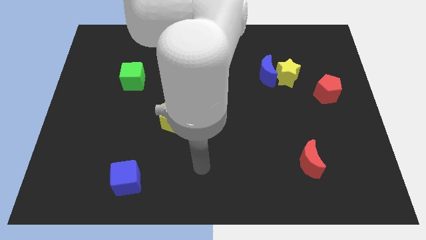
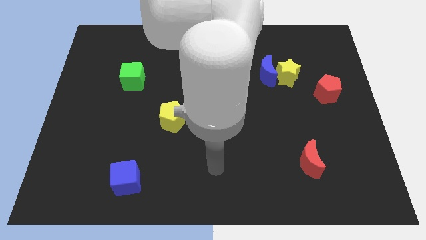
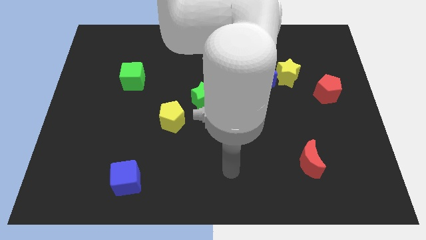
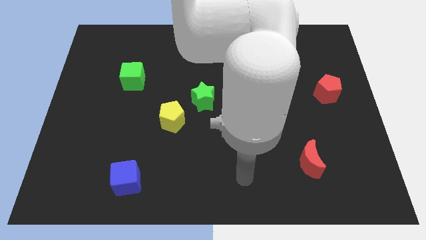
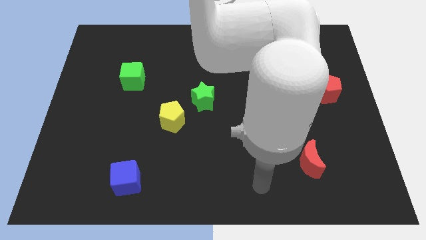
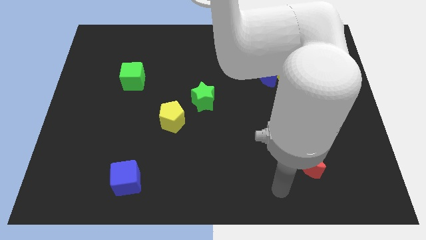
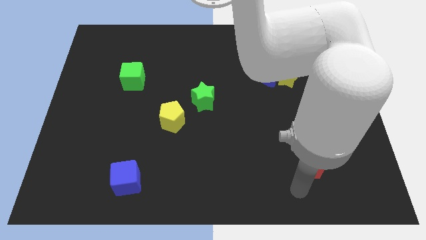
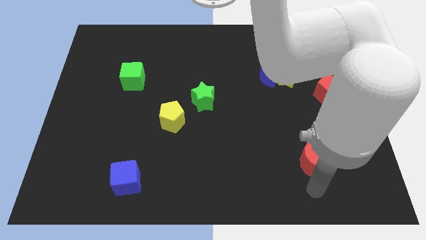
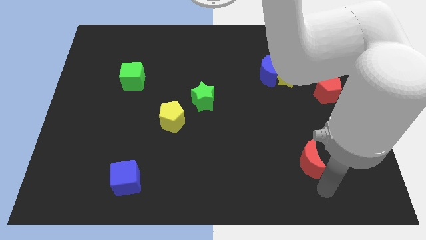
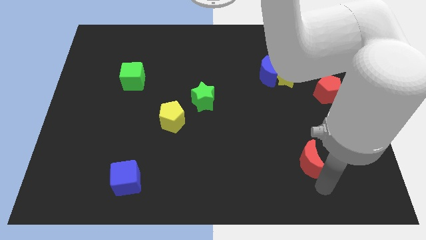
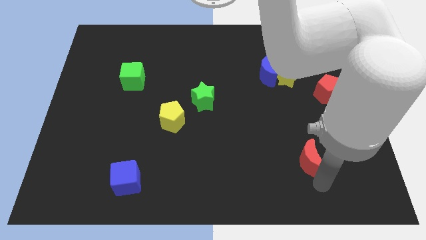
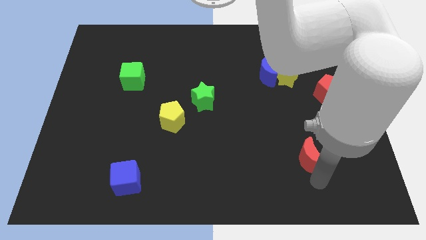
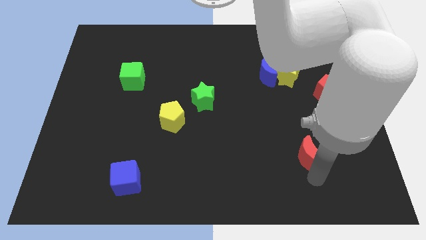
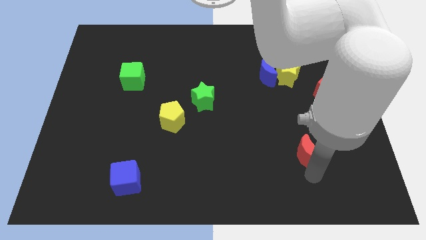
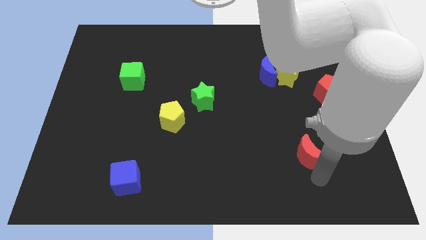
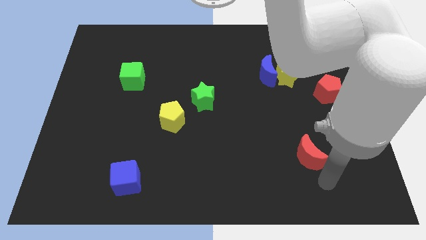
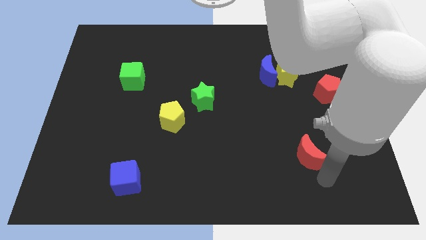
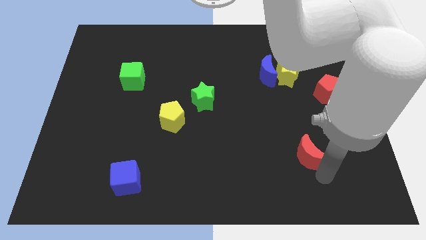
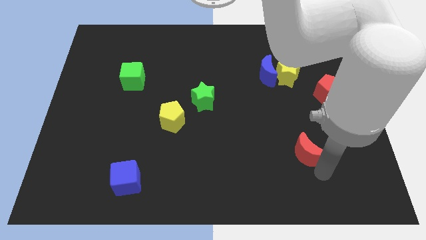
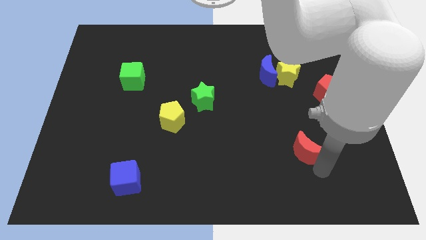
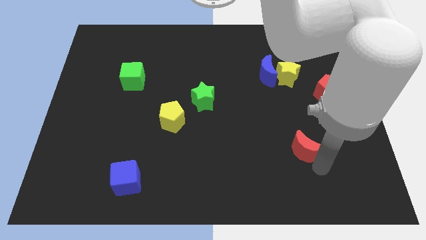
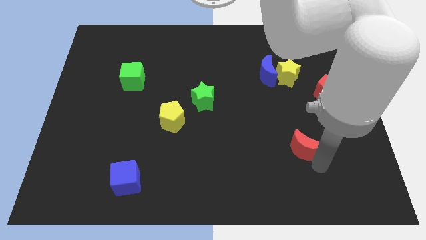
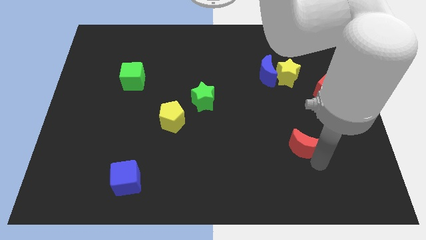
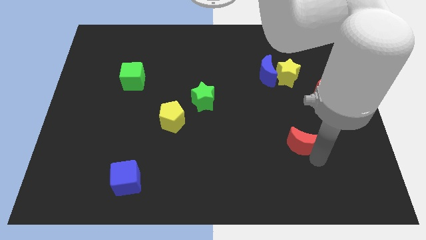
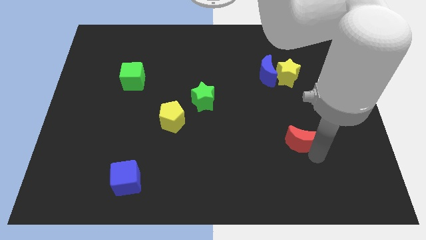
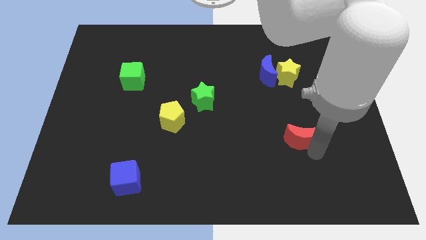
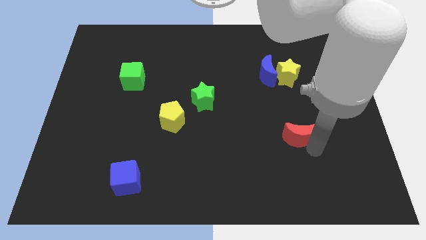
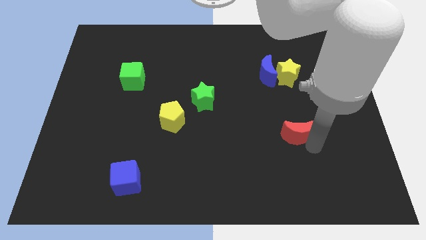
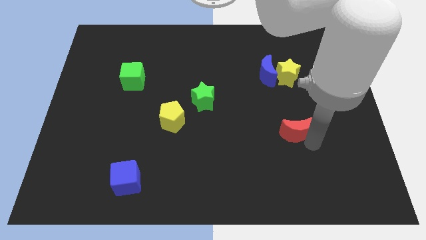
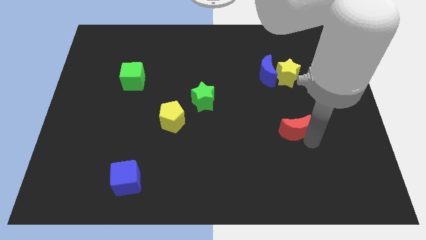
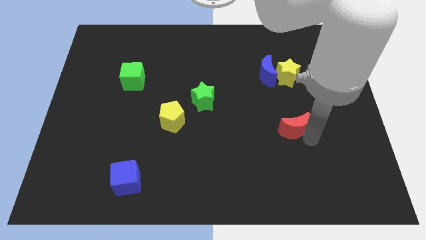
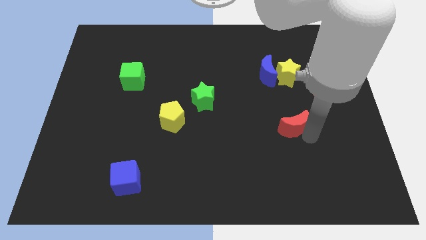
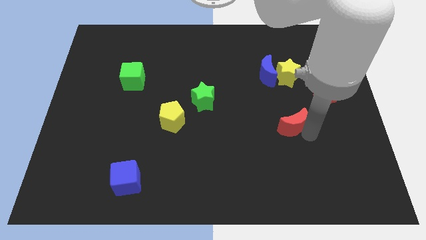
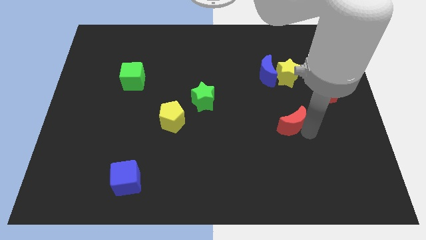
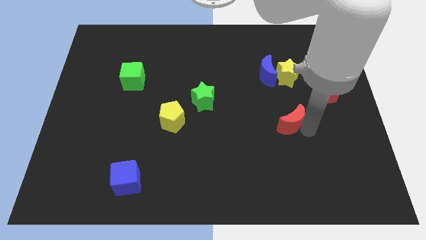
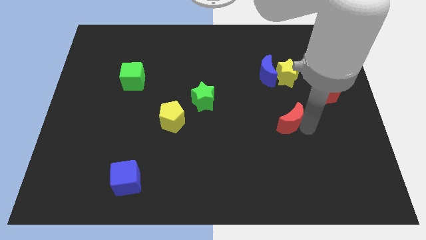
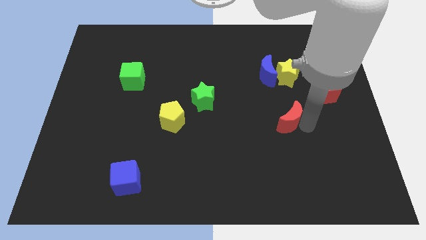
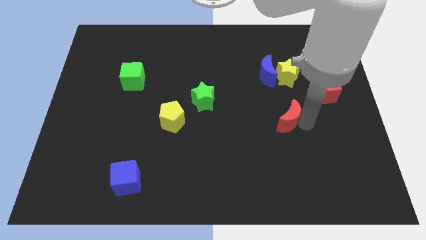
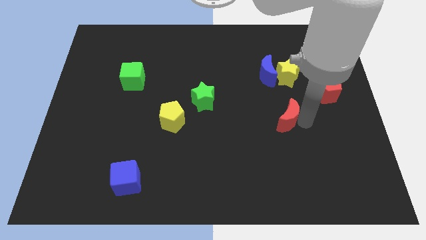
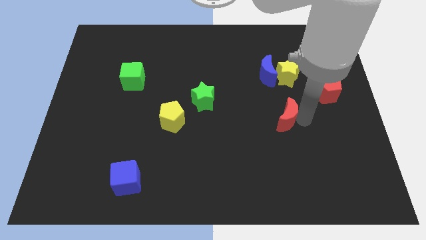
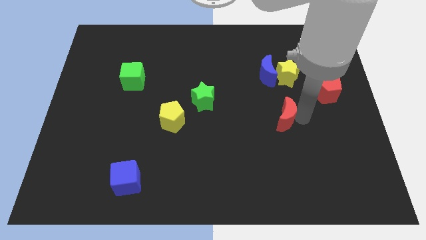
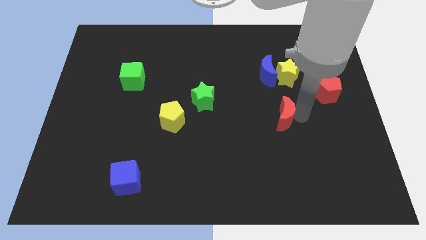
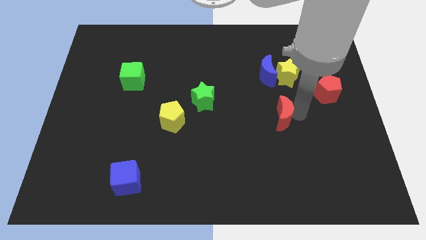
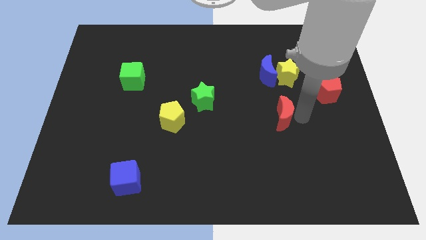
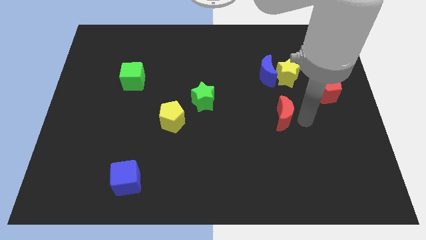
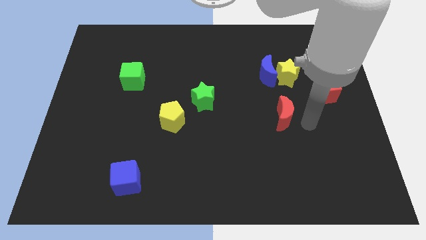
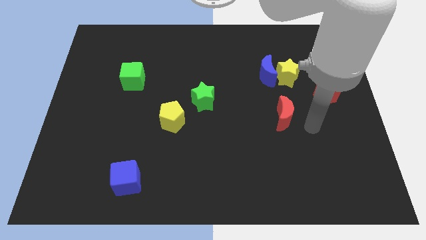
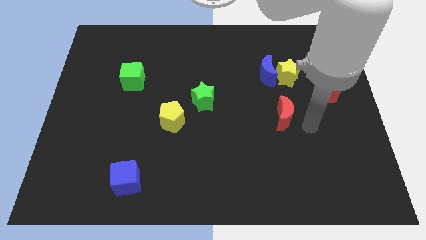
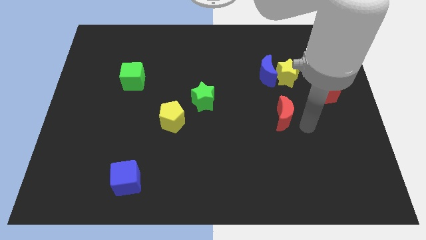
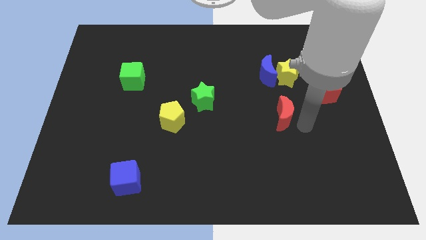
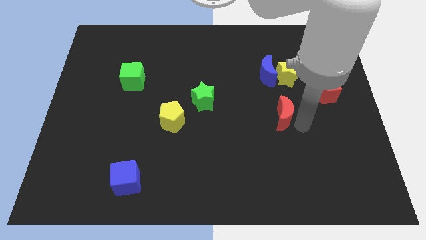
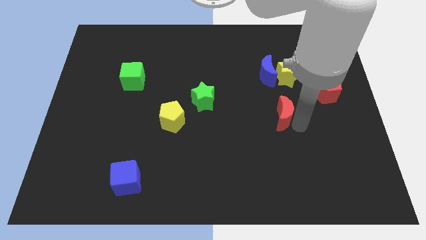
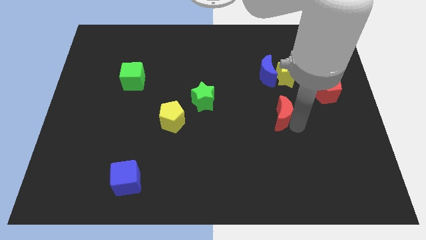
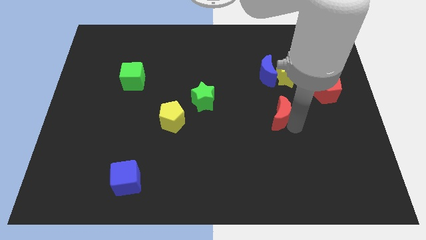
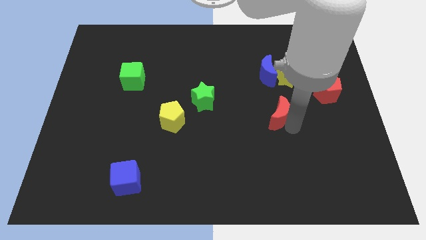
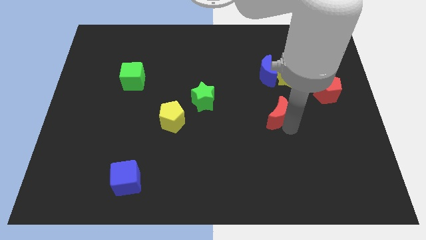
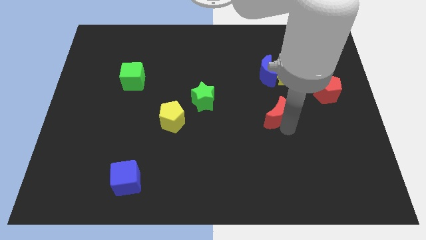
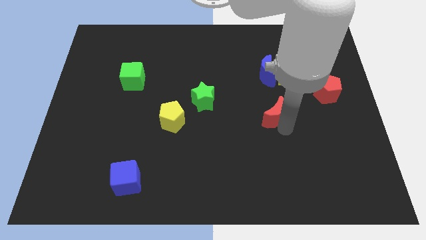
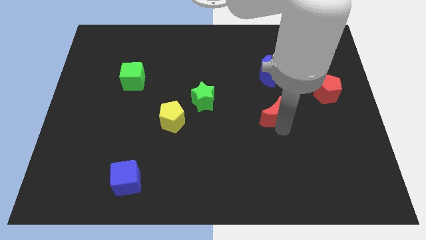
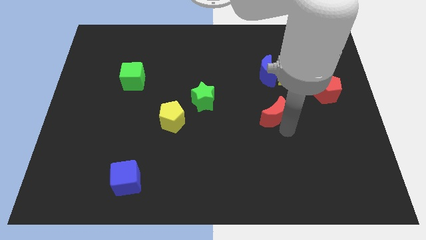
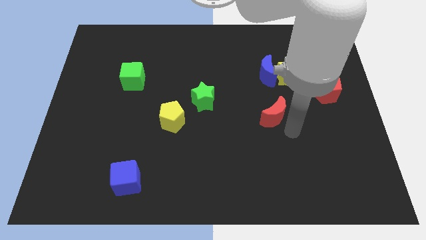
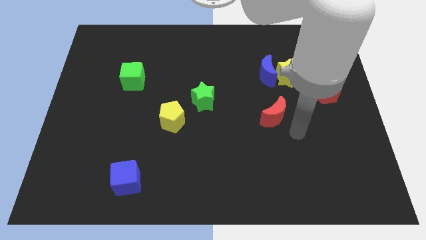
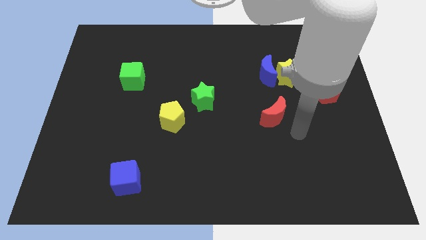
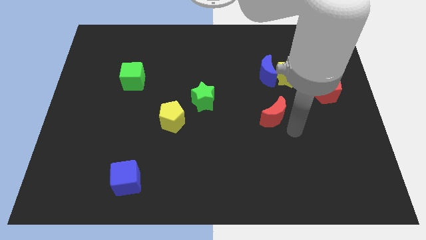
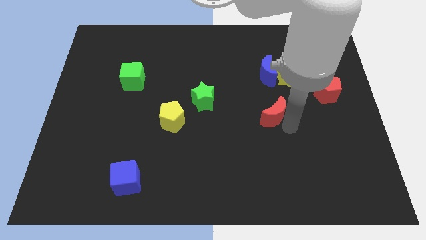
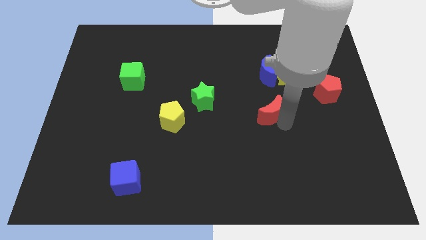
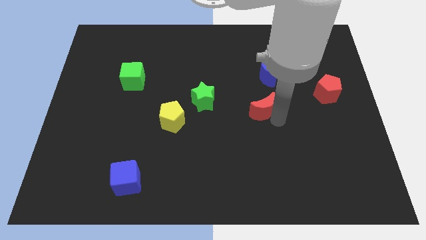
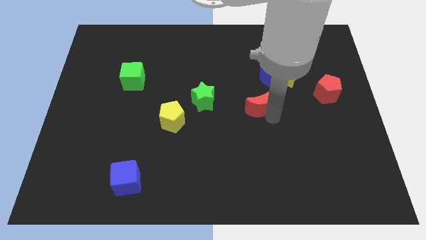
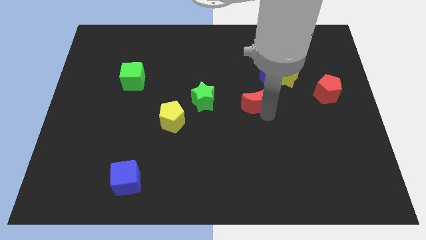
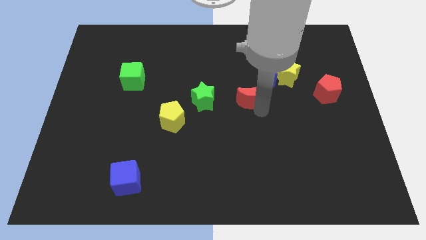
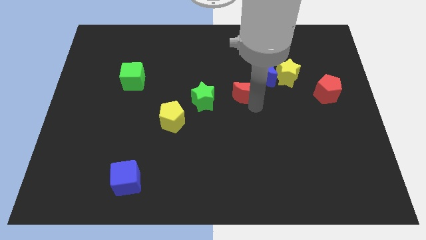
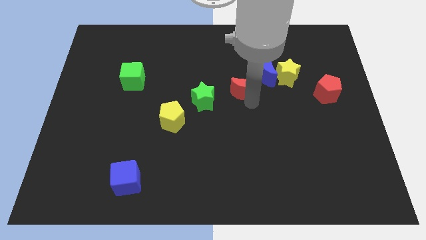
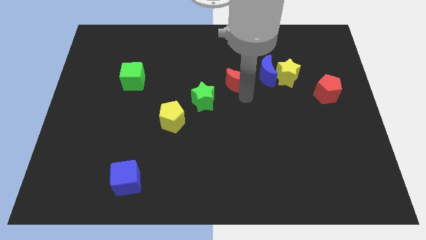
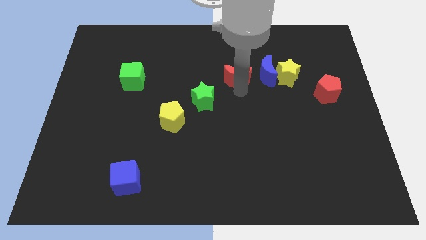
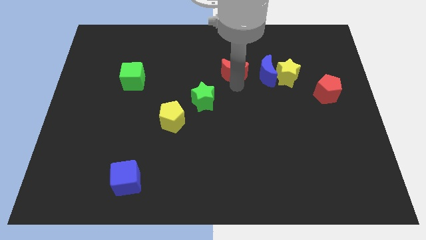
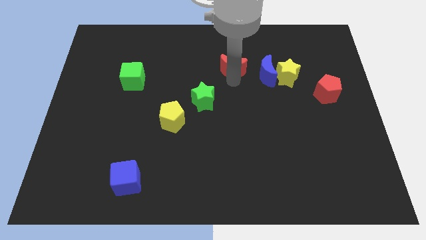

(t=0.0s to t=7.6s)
put the red moon to the top left of the blue moon
